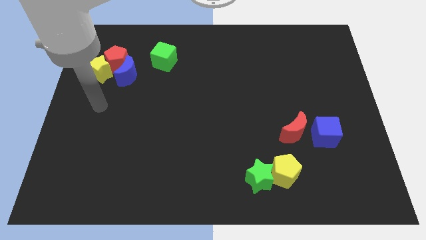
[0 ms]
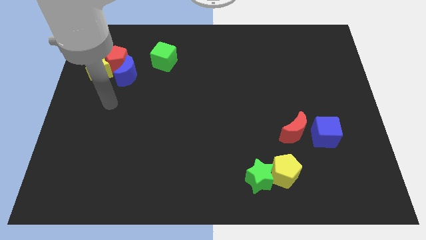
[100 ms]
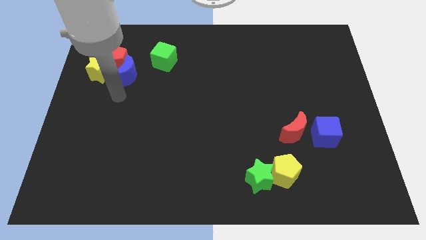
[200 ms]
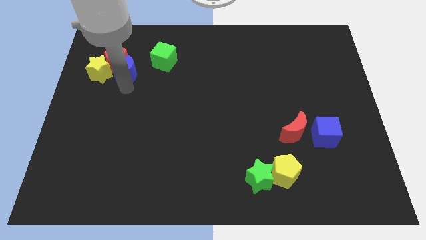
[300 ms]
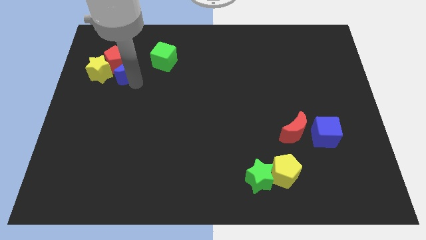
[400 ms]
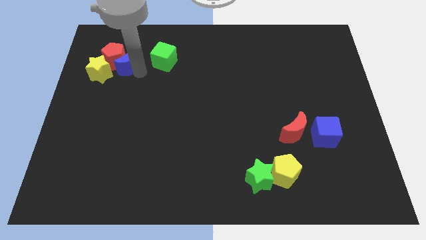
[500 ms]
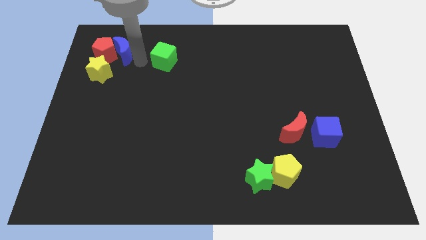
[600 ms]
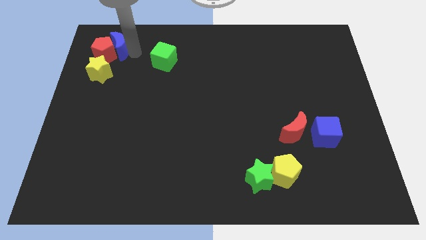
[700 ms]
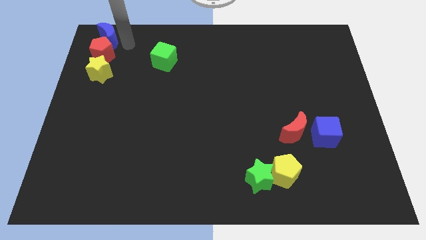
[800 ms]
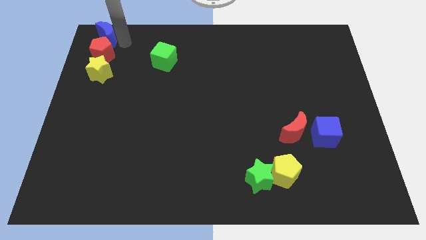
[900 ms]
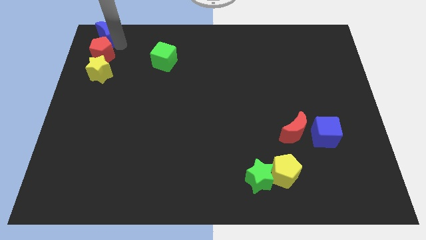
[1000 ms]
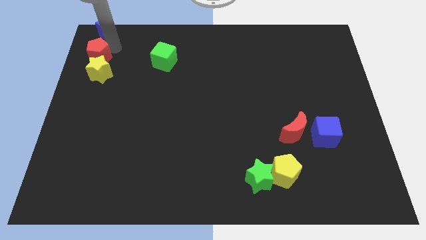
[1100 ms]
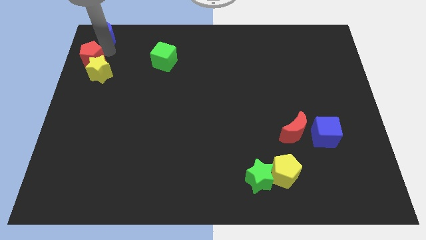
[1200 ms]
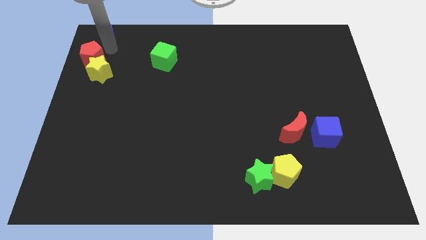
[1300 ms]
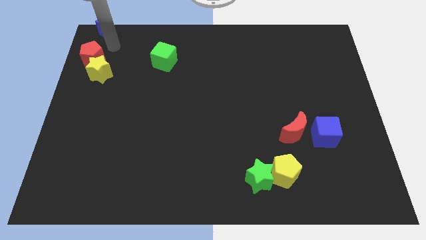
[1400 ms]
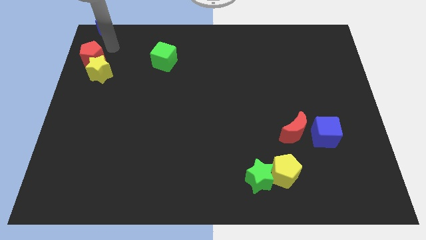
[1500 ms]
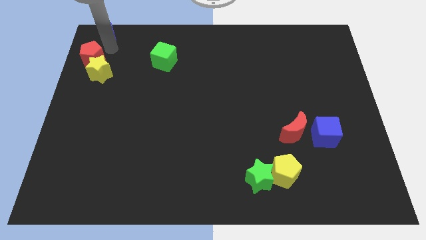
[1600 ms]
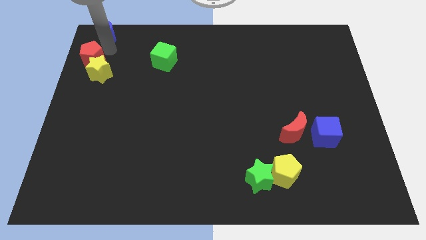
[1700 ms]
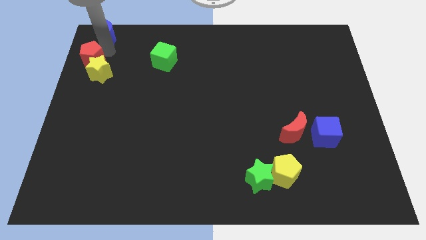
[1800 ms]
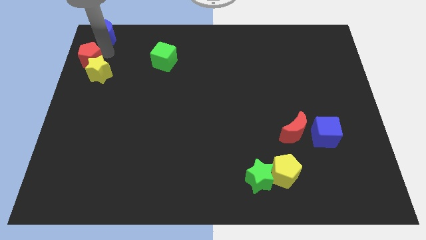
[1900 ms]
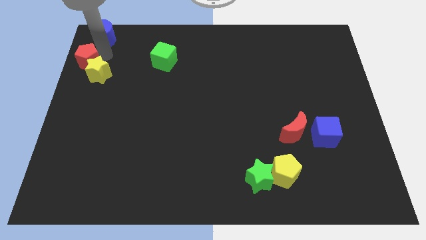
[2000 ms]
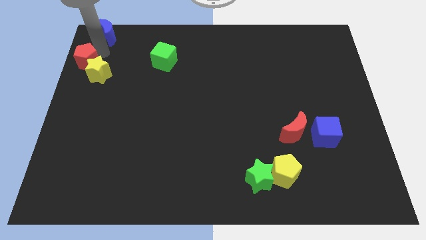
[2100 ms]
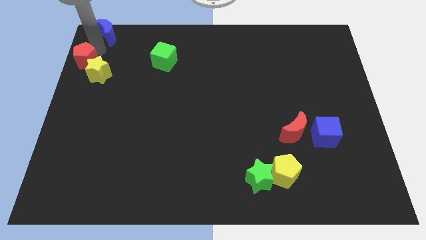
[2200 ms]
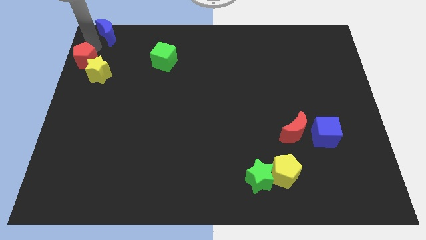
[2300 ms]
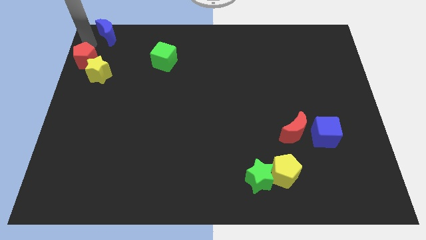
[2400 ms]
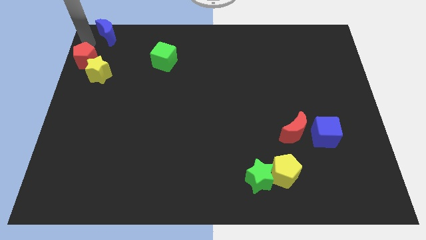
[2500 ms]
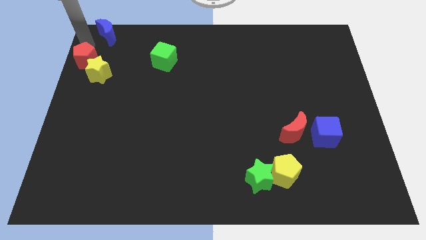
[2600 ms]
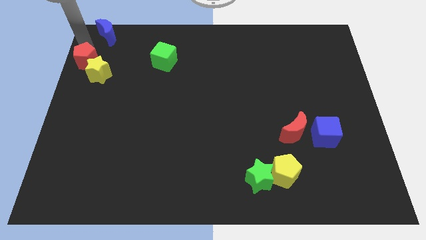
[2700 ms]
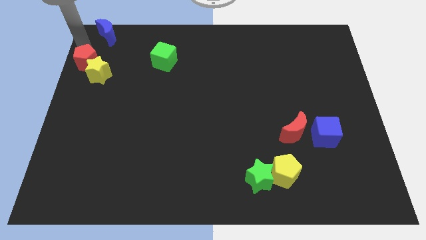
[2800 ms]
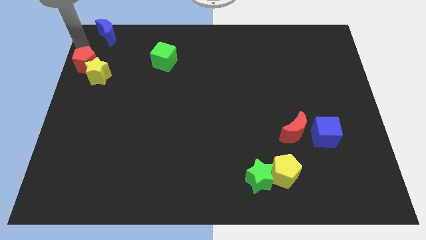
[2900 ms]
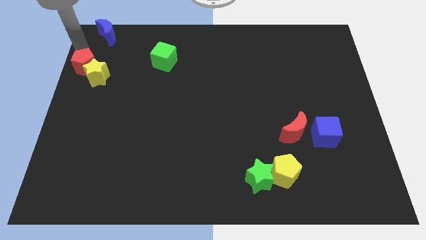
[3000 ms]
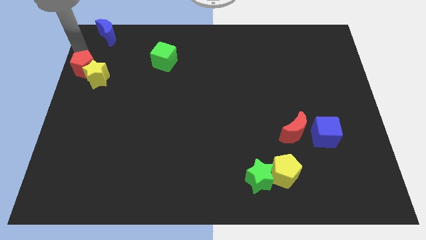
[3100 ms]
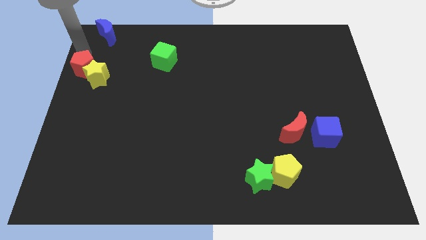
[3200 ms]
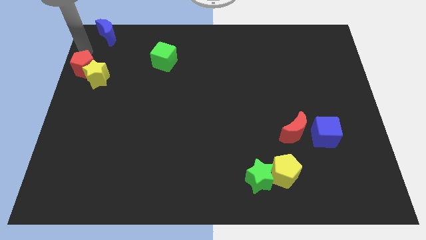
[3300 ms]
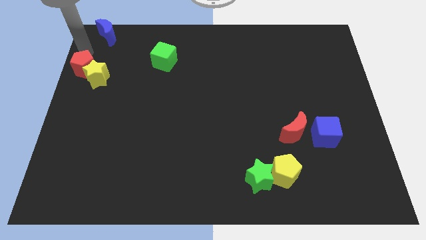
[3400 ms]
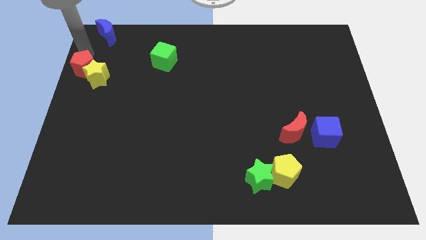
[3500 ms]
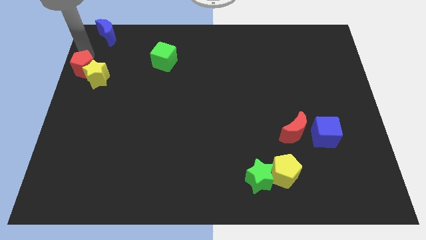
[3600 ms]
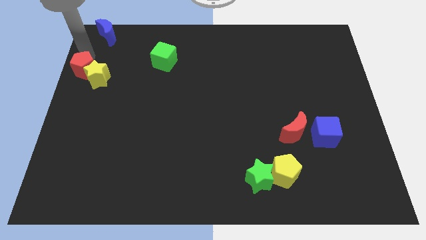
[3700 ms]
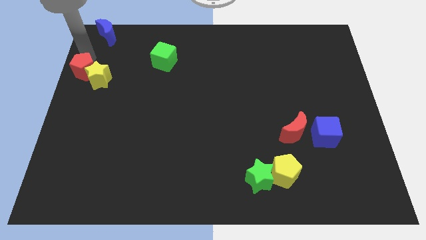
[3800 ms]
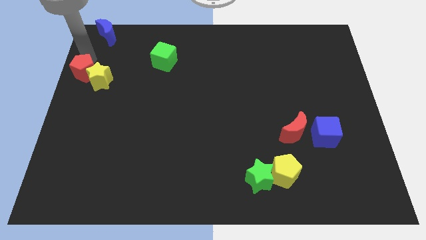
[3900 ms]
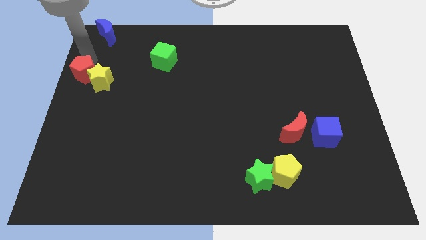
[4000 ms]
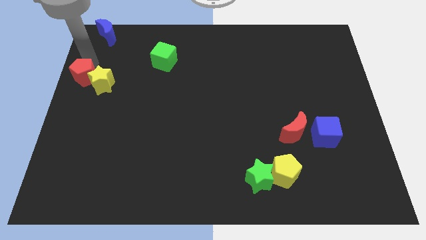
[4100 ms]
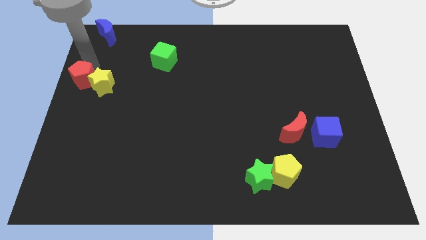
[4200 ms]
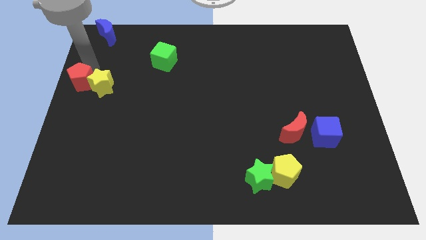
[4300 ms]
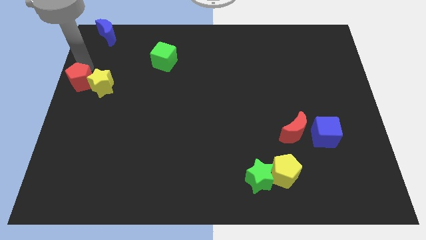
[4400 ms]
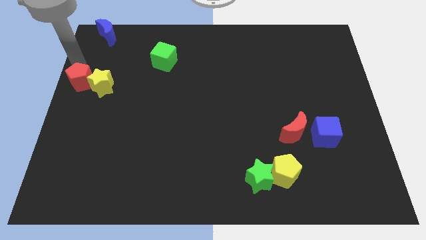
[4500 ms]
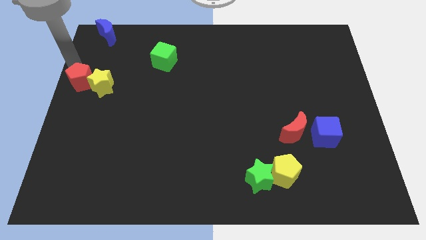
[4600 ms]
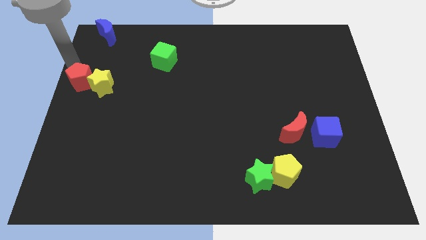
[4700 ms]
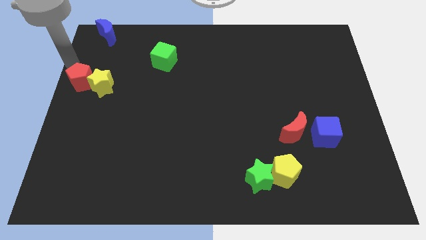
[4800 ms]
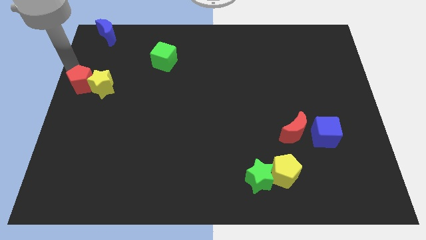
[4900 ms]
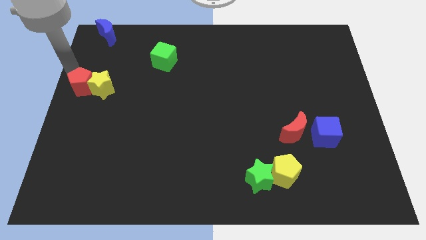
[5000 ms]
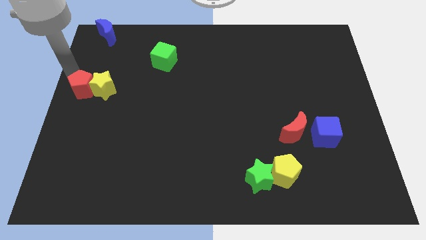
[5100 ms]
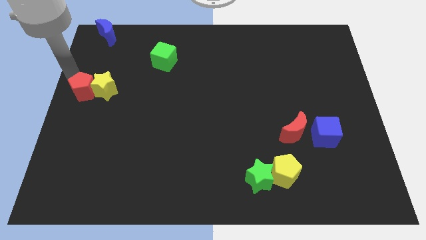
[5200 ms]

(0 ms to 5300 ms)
slide the red pentagon slightly downwards

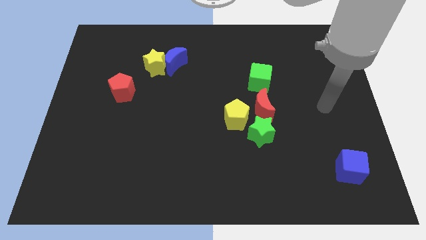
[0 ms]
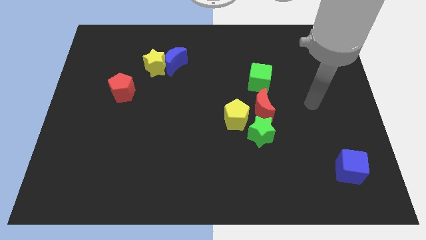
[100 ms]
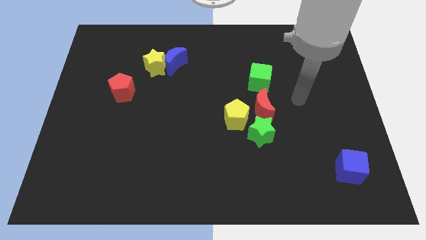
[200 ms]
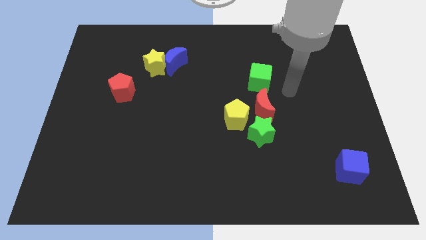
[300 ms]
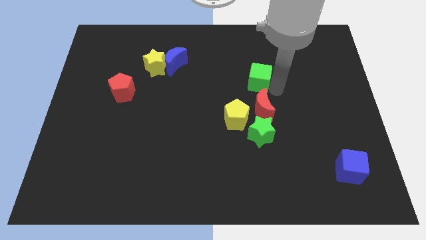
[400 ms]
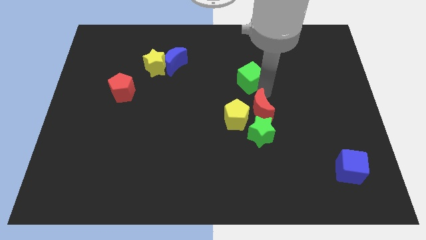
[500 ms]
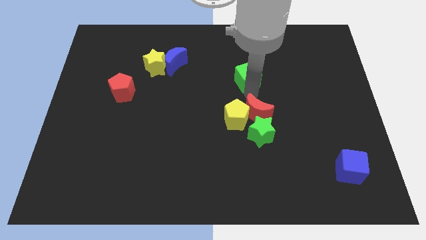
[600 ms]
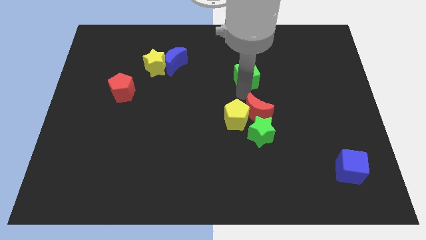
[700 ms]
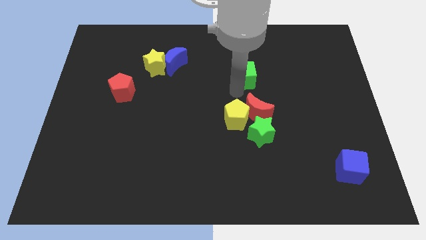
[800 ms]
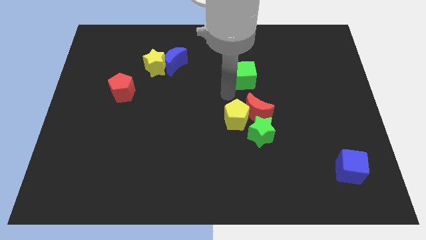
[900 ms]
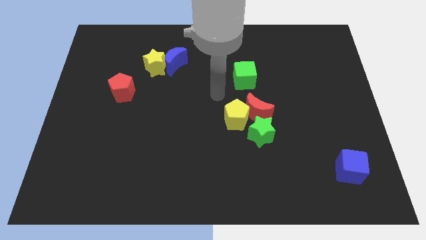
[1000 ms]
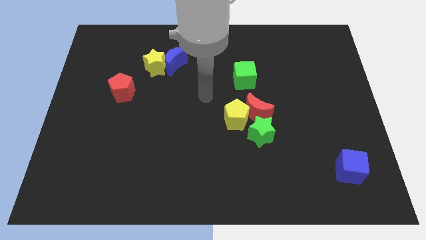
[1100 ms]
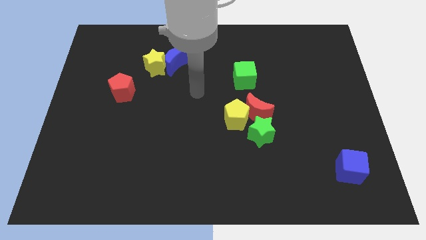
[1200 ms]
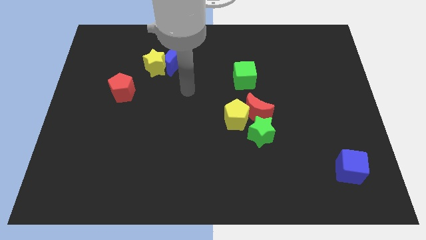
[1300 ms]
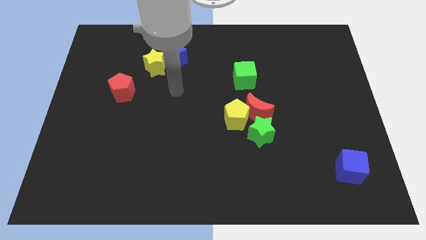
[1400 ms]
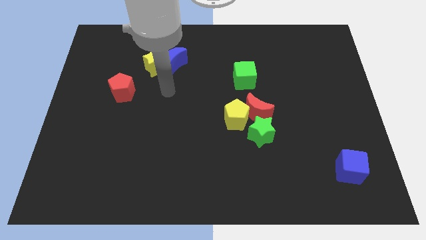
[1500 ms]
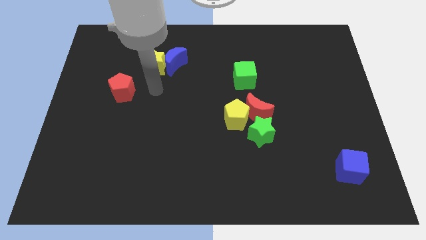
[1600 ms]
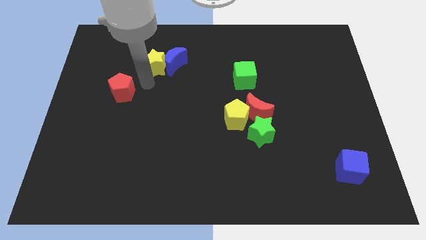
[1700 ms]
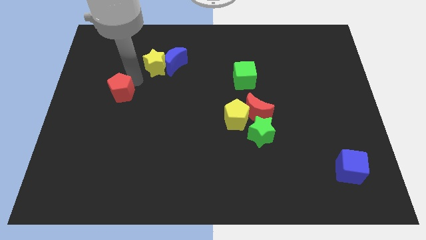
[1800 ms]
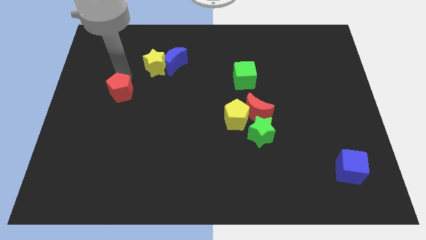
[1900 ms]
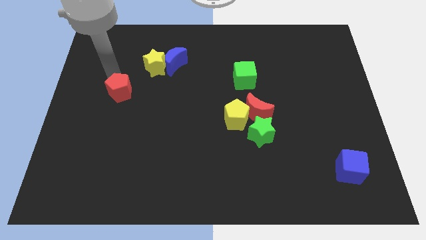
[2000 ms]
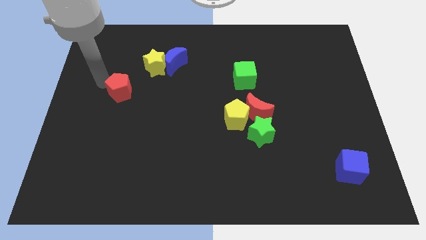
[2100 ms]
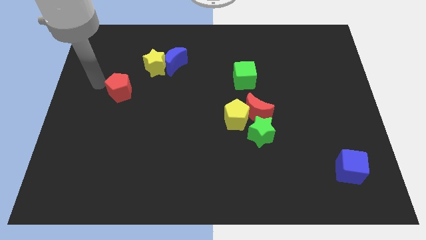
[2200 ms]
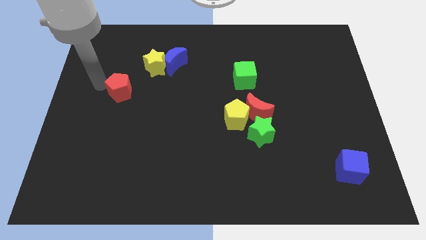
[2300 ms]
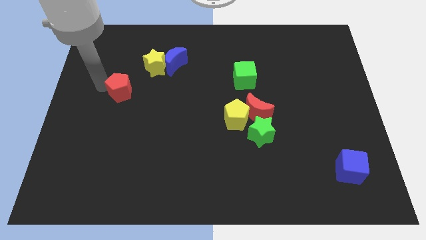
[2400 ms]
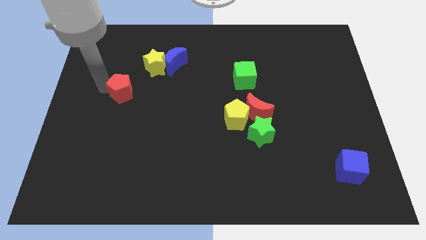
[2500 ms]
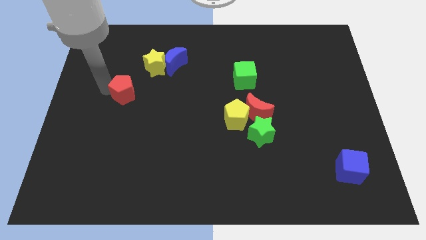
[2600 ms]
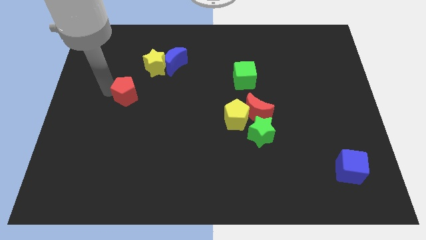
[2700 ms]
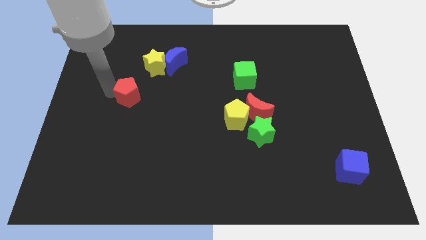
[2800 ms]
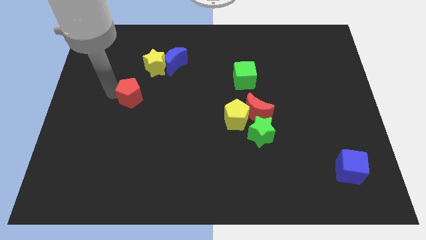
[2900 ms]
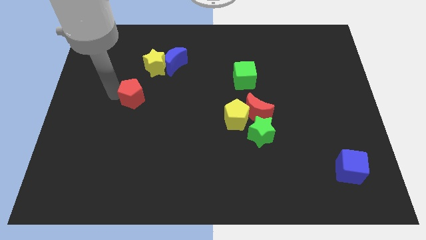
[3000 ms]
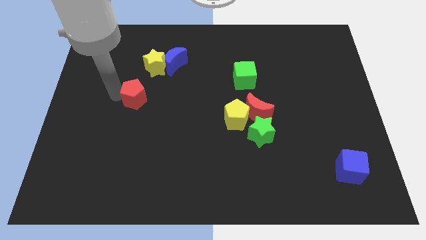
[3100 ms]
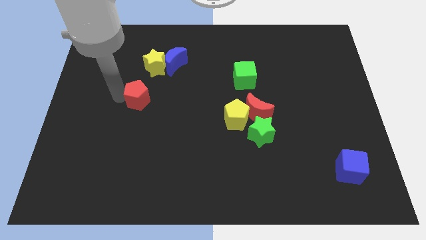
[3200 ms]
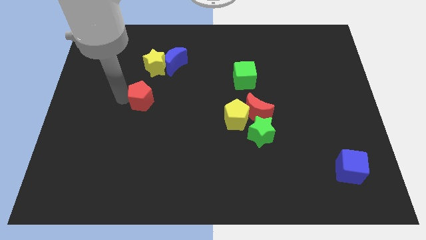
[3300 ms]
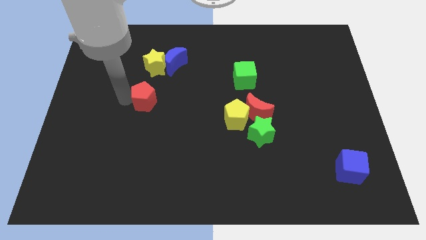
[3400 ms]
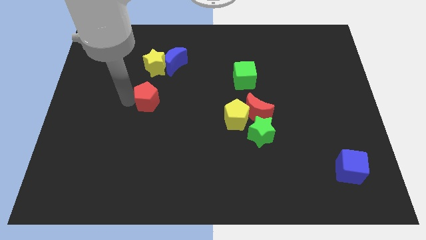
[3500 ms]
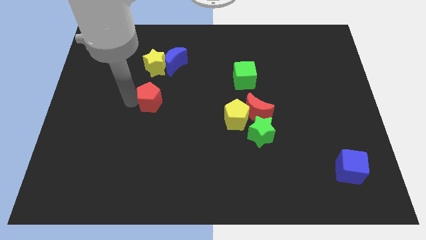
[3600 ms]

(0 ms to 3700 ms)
slightly push the red pentagon to the right
